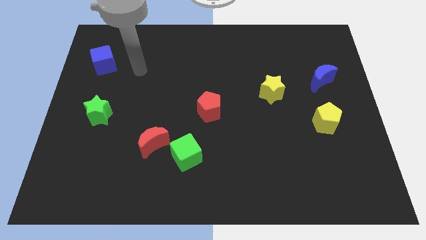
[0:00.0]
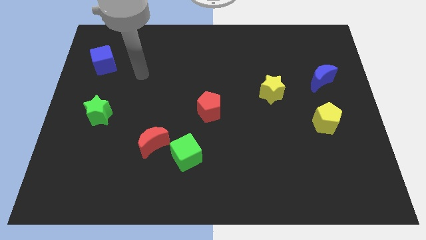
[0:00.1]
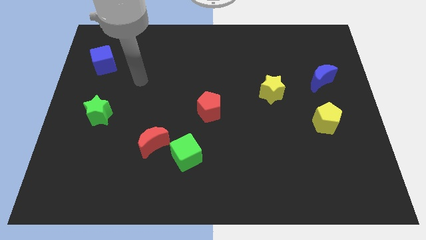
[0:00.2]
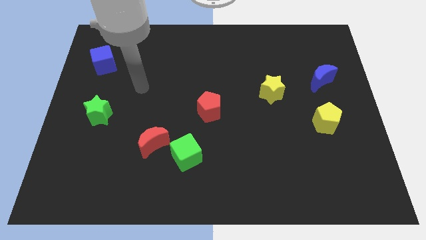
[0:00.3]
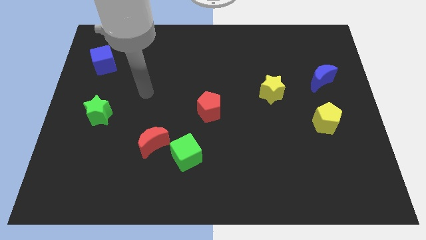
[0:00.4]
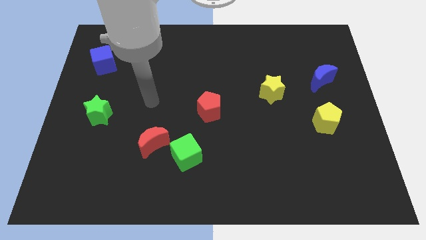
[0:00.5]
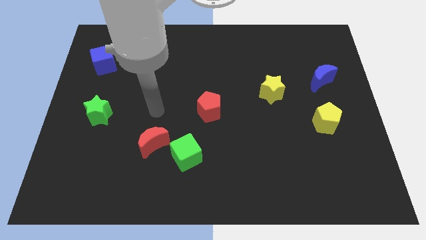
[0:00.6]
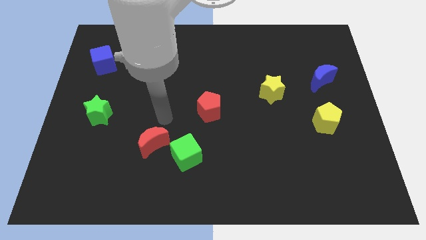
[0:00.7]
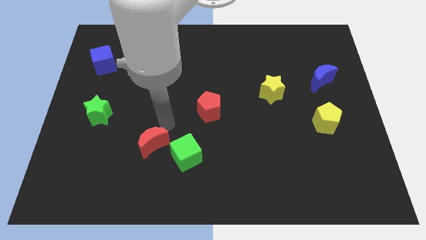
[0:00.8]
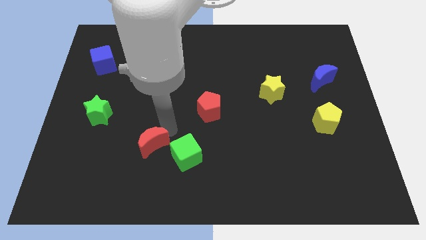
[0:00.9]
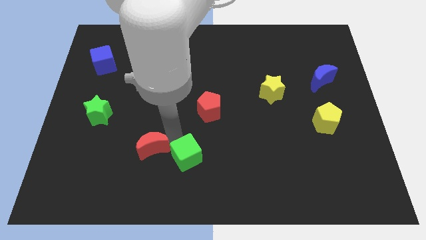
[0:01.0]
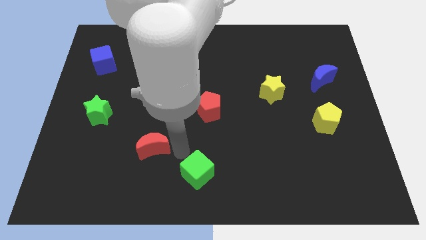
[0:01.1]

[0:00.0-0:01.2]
move the red moon away from the green cube

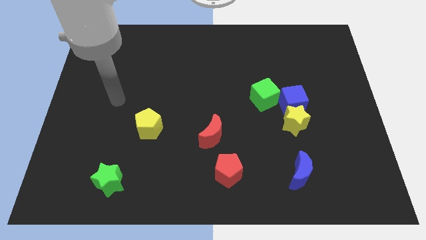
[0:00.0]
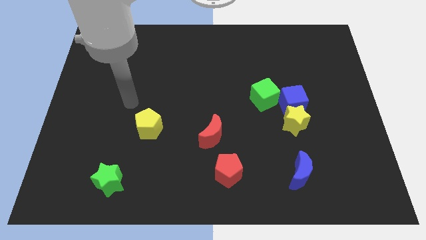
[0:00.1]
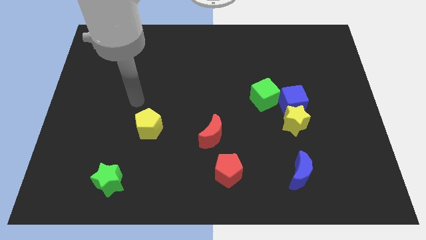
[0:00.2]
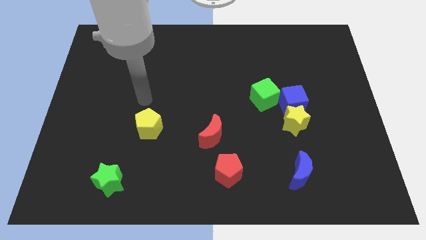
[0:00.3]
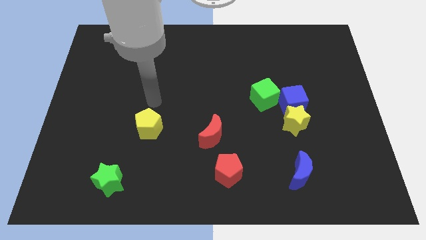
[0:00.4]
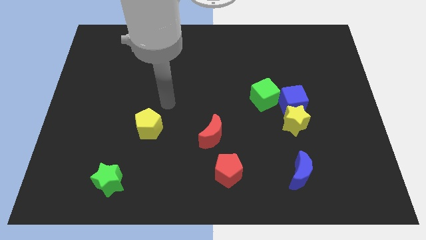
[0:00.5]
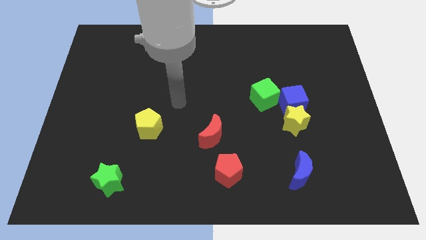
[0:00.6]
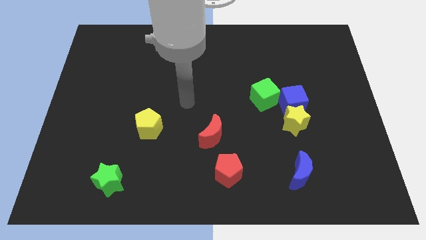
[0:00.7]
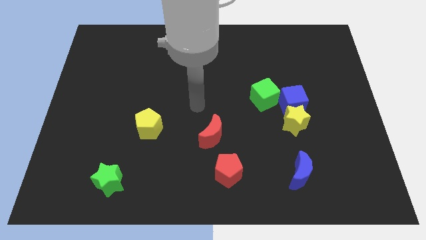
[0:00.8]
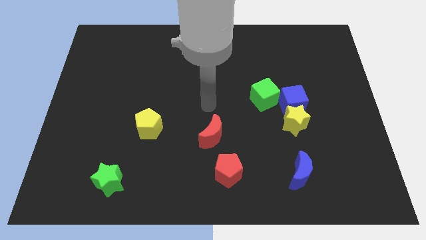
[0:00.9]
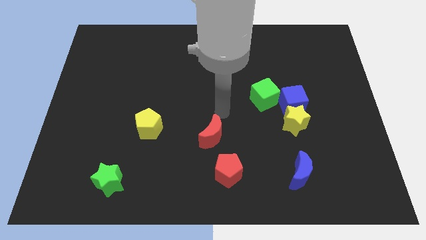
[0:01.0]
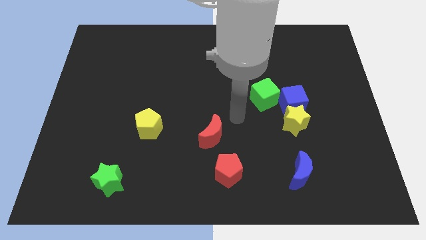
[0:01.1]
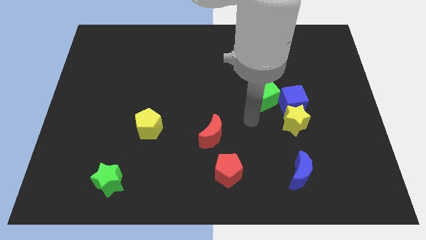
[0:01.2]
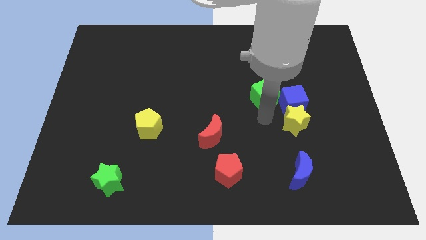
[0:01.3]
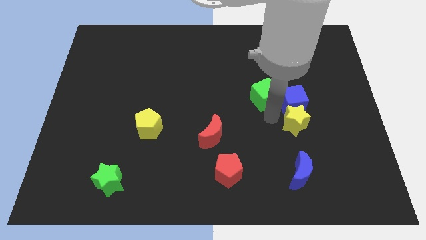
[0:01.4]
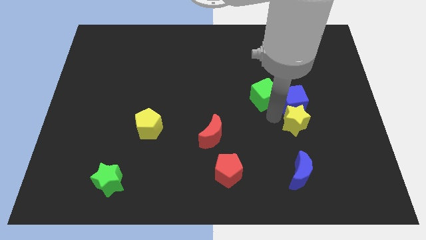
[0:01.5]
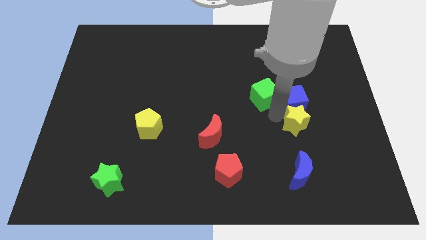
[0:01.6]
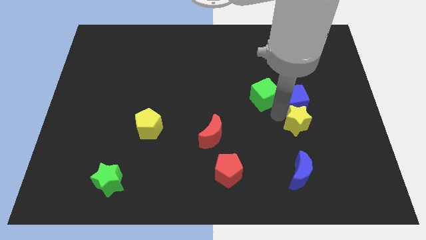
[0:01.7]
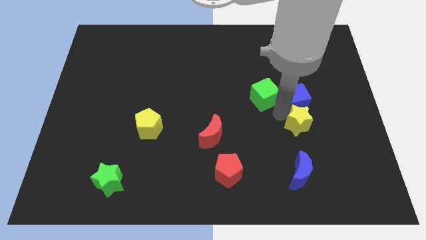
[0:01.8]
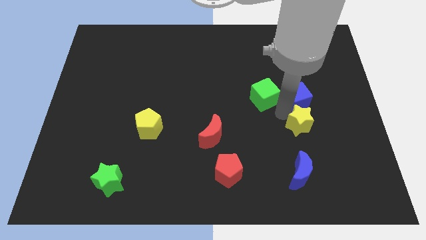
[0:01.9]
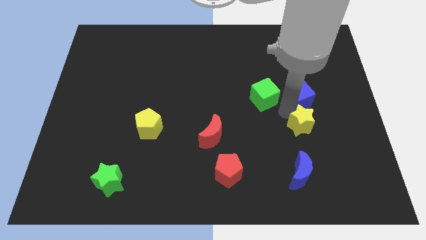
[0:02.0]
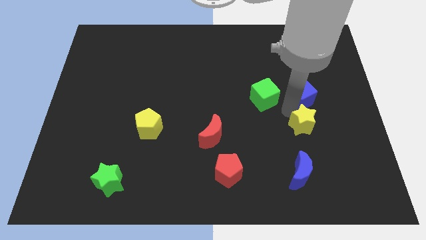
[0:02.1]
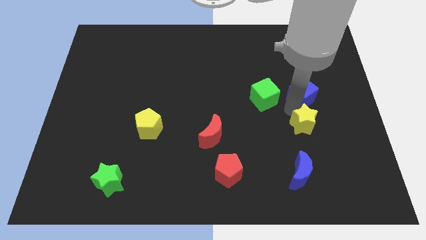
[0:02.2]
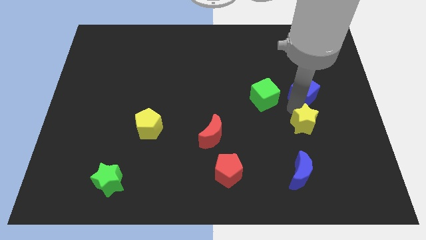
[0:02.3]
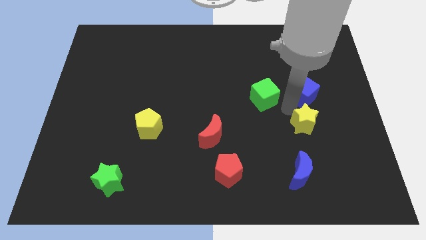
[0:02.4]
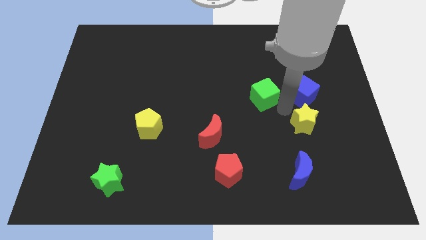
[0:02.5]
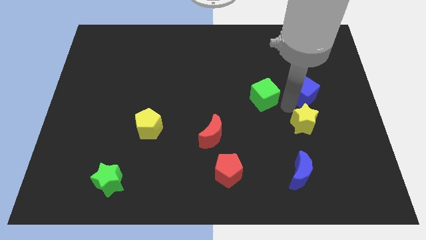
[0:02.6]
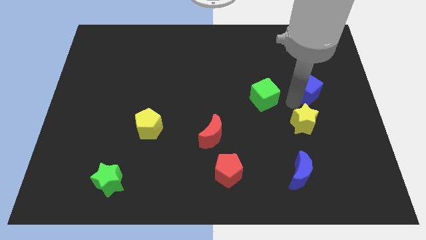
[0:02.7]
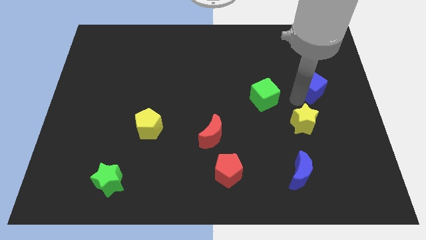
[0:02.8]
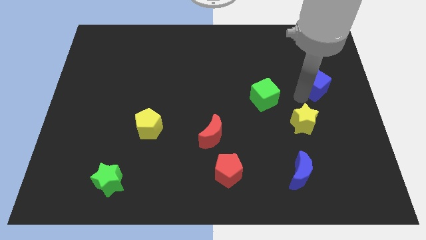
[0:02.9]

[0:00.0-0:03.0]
pull the blue cube apart from the yellow star and green cube

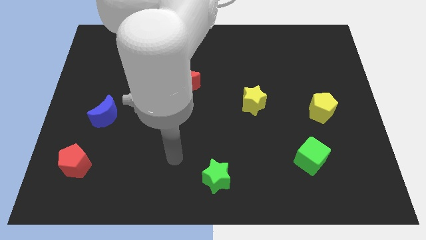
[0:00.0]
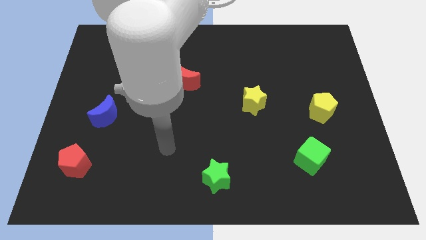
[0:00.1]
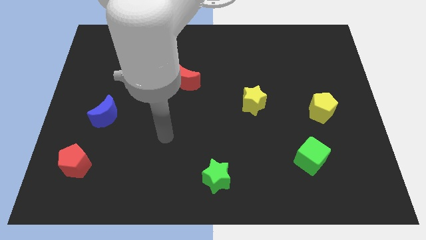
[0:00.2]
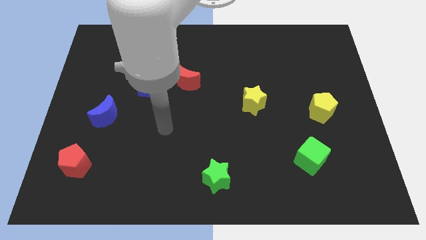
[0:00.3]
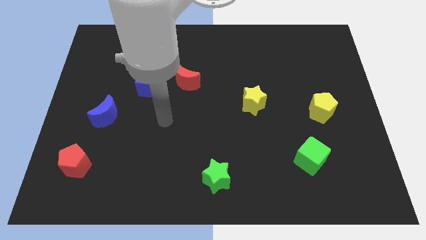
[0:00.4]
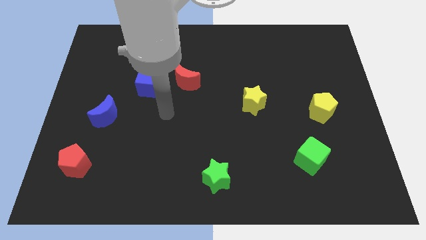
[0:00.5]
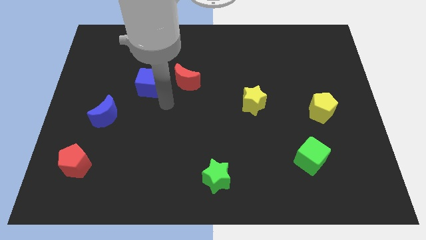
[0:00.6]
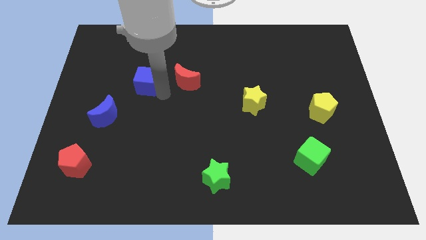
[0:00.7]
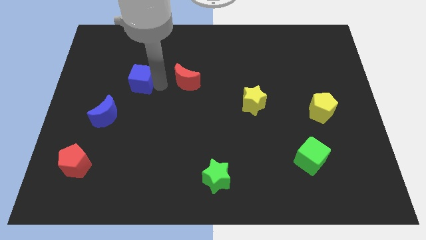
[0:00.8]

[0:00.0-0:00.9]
pull the red moon apart from the blue cube

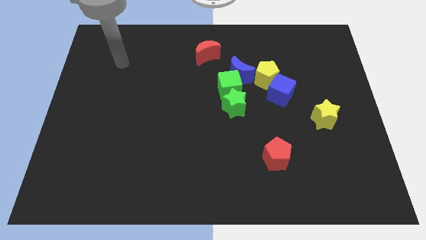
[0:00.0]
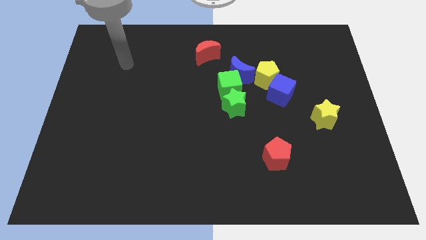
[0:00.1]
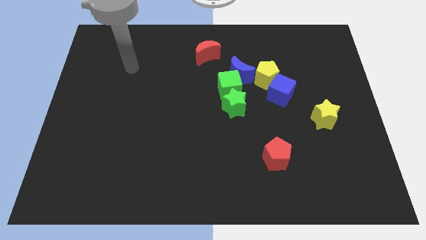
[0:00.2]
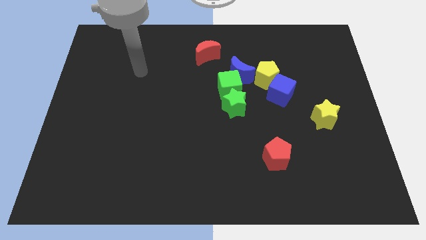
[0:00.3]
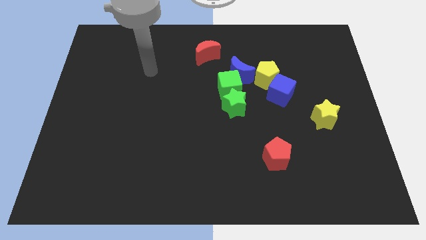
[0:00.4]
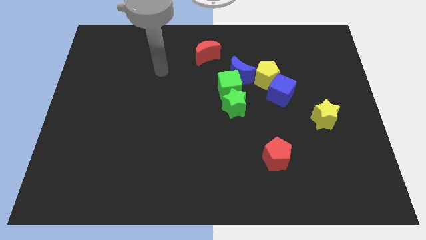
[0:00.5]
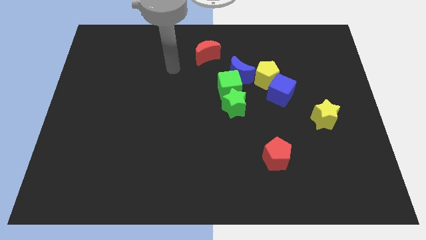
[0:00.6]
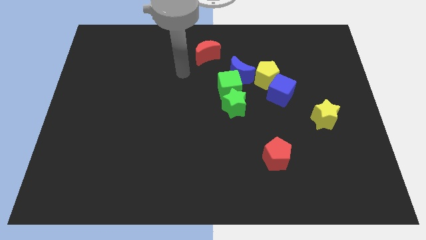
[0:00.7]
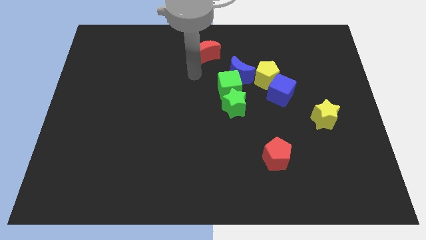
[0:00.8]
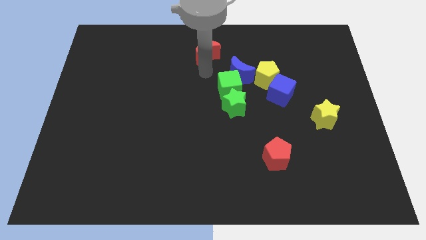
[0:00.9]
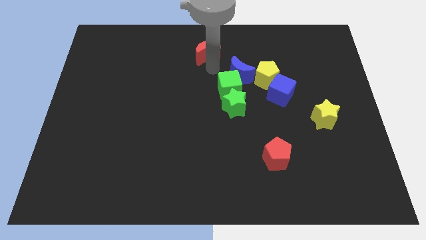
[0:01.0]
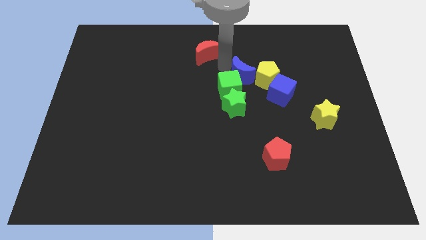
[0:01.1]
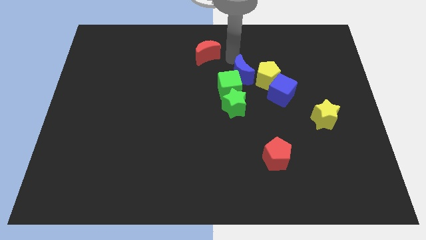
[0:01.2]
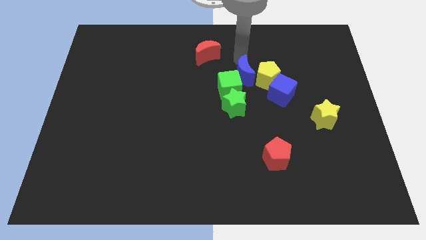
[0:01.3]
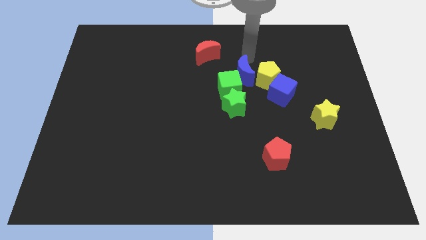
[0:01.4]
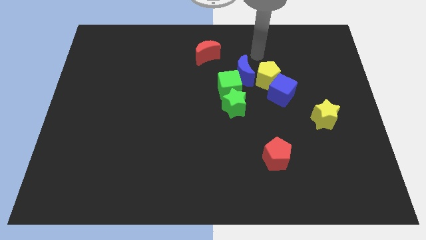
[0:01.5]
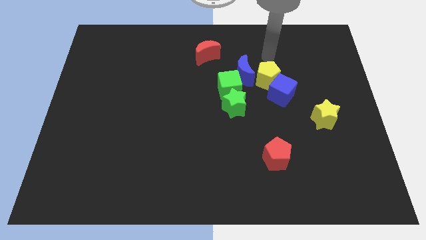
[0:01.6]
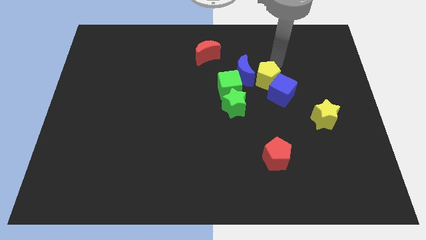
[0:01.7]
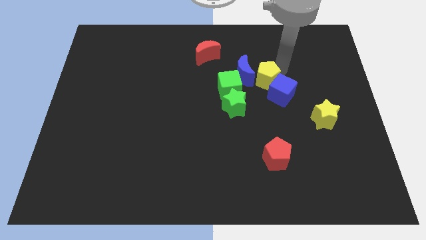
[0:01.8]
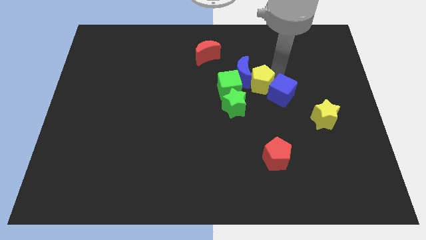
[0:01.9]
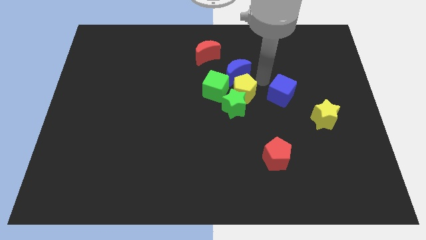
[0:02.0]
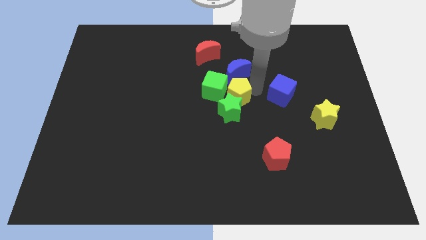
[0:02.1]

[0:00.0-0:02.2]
pull the blue cube apart from the yellow pentagon

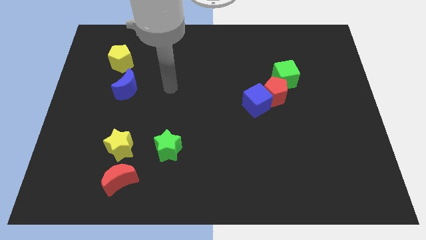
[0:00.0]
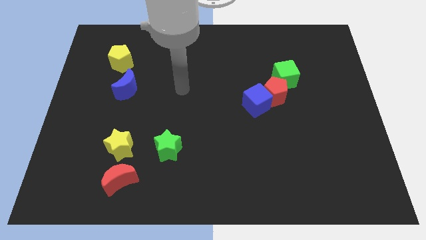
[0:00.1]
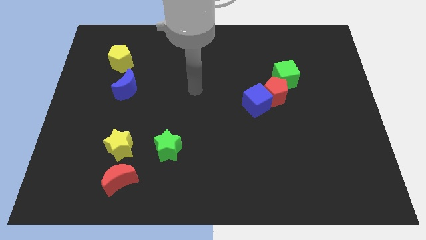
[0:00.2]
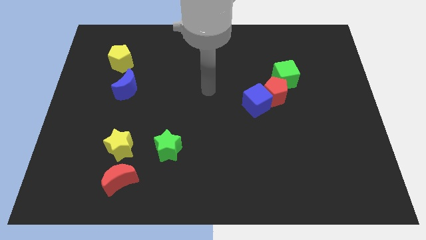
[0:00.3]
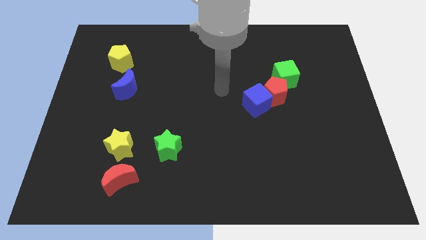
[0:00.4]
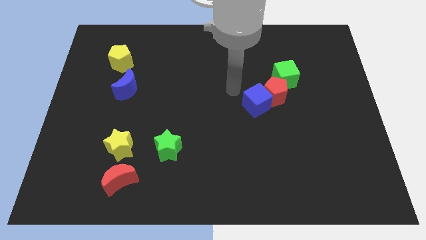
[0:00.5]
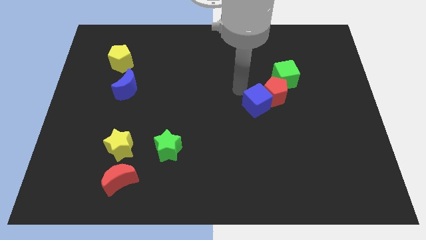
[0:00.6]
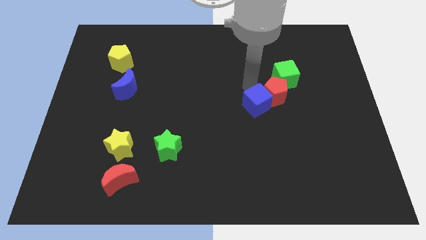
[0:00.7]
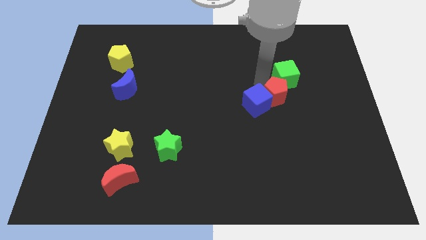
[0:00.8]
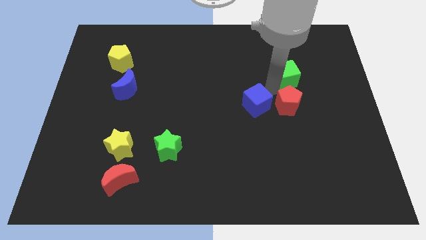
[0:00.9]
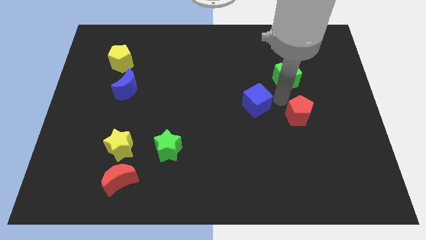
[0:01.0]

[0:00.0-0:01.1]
move the blue cube away from the red pentagon

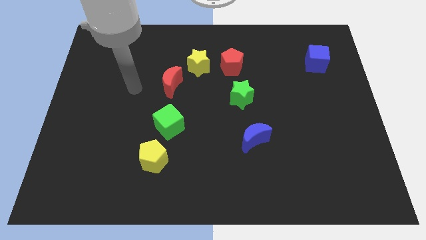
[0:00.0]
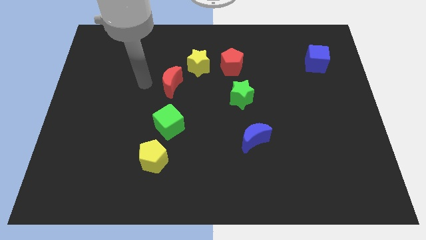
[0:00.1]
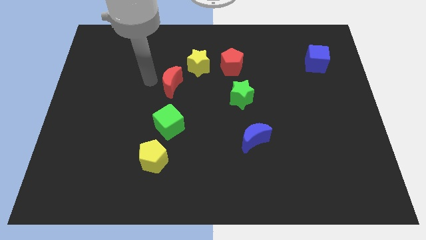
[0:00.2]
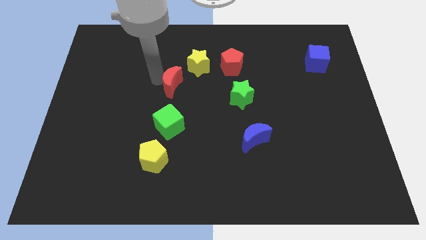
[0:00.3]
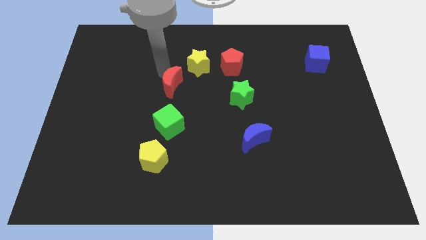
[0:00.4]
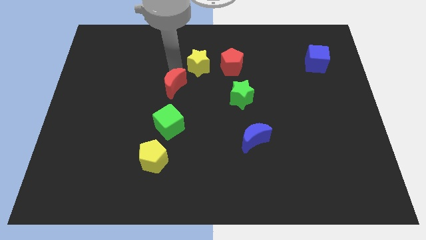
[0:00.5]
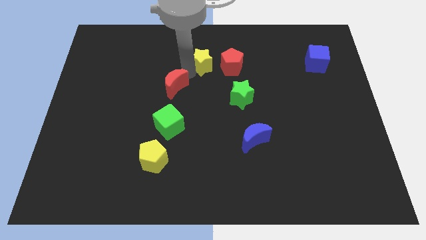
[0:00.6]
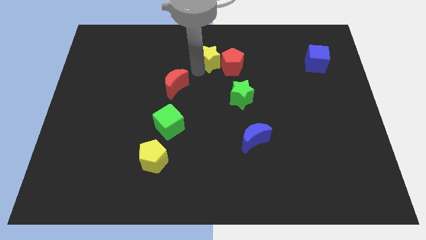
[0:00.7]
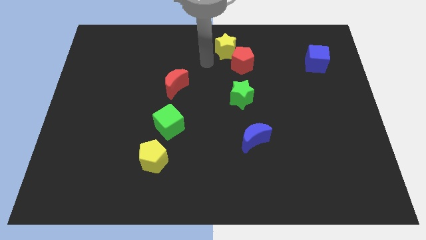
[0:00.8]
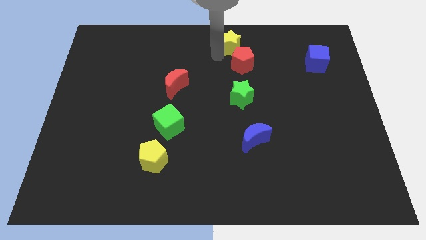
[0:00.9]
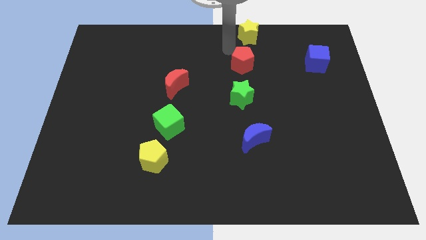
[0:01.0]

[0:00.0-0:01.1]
move the red pentagon away from the yellow star
